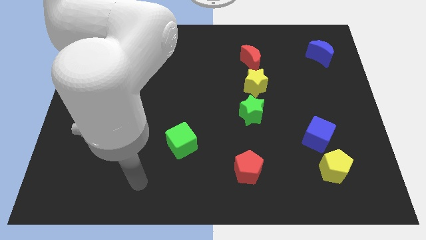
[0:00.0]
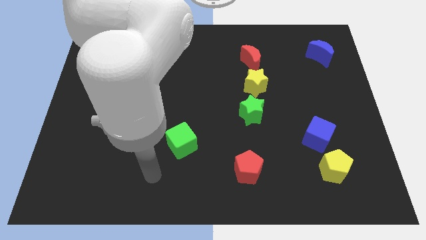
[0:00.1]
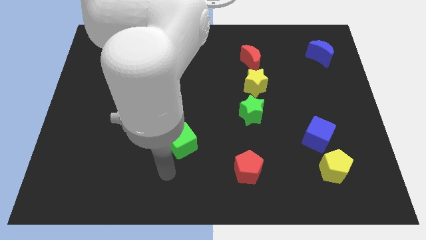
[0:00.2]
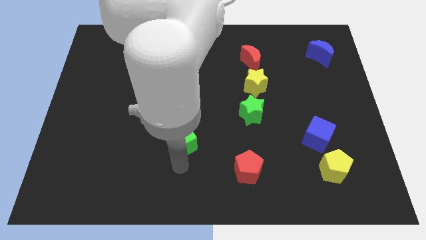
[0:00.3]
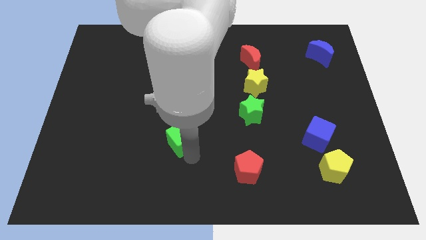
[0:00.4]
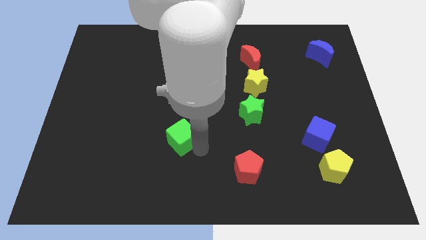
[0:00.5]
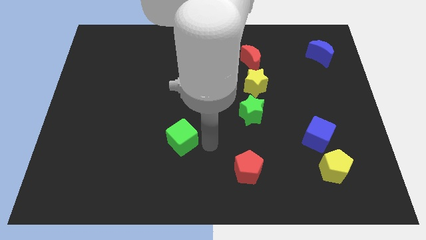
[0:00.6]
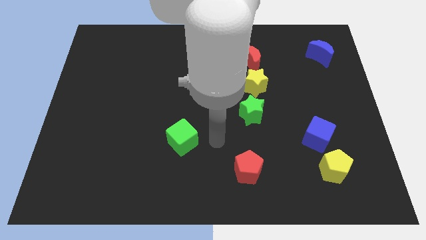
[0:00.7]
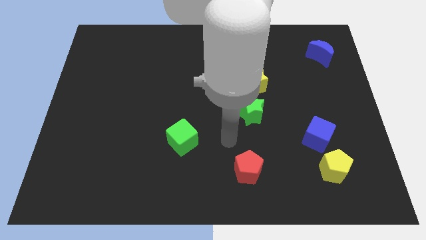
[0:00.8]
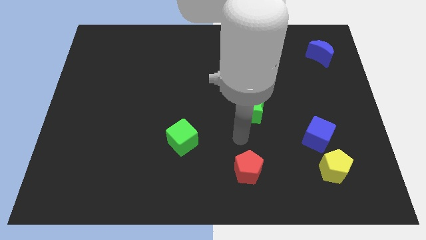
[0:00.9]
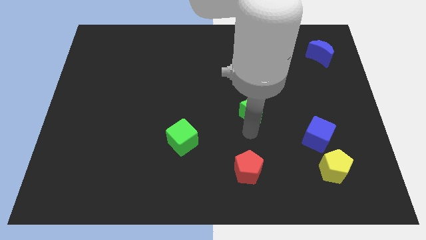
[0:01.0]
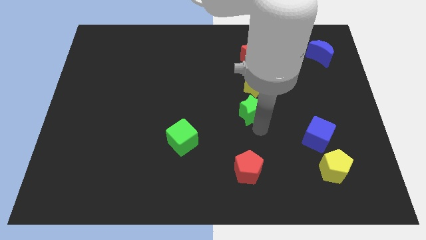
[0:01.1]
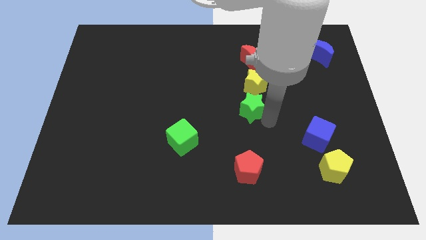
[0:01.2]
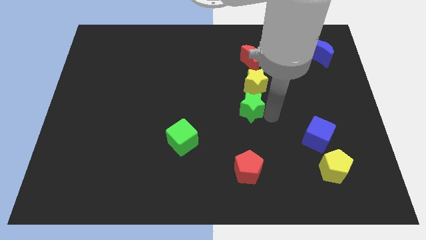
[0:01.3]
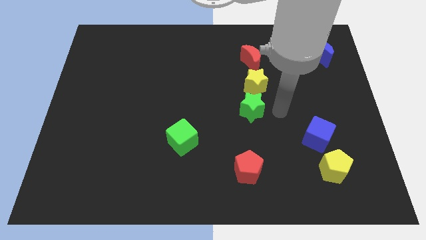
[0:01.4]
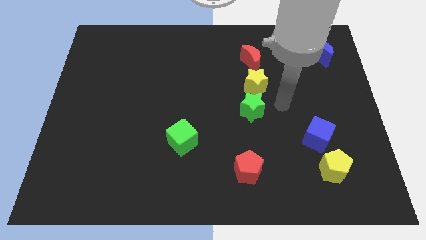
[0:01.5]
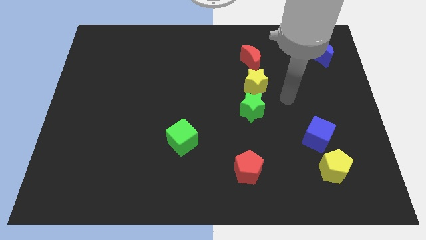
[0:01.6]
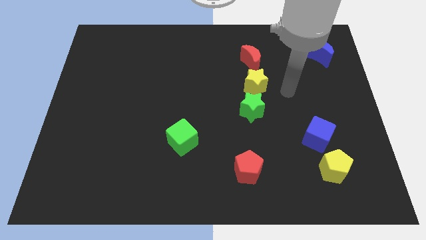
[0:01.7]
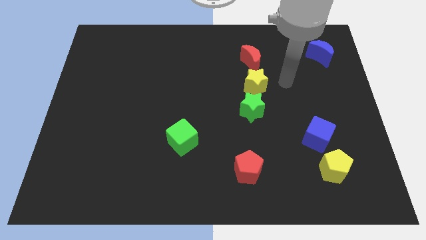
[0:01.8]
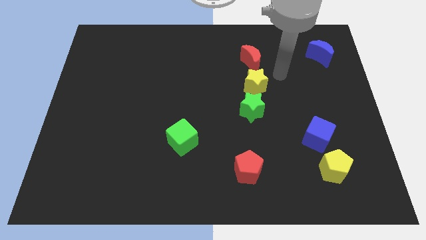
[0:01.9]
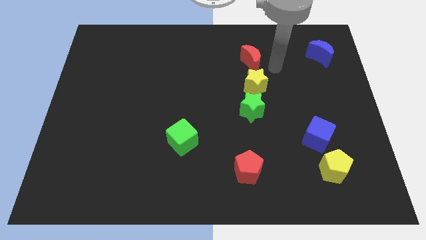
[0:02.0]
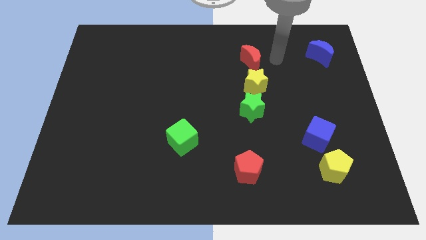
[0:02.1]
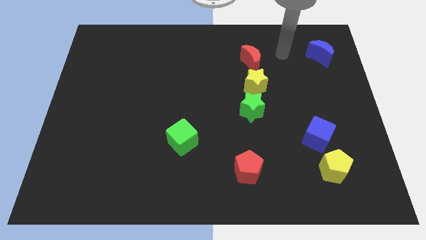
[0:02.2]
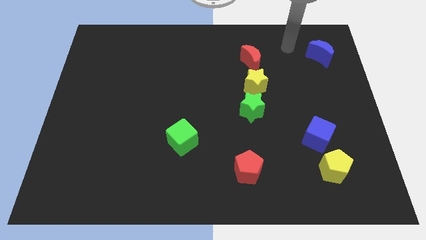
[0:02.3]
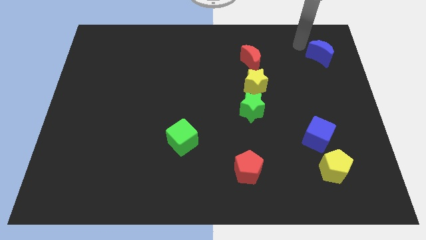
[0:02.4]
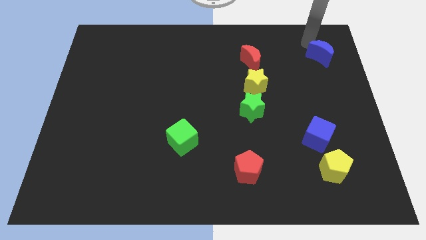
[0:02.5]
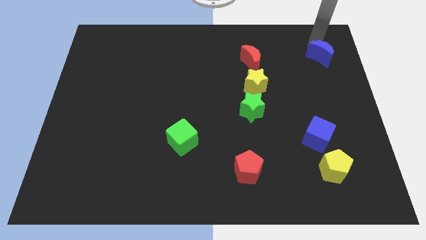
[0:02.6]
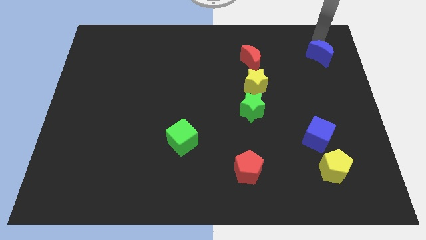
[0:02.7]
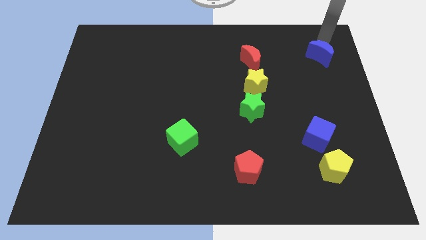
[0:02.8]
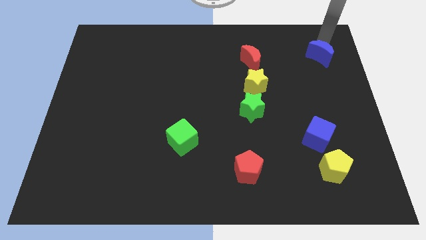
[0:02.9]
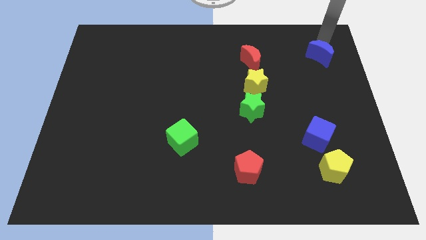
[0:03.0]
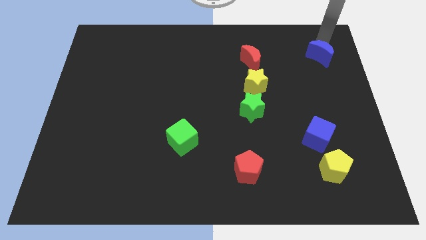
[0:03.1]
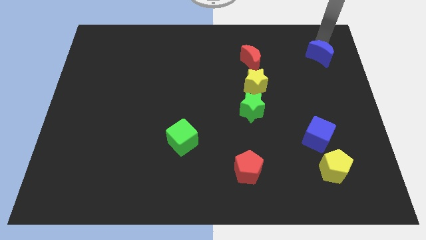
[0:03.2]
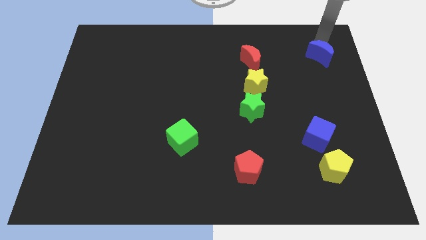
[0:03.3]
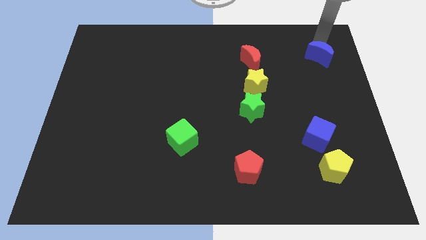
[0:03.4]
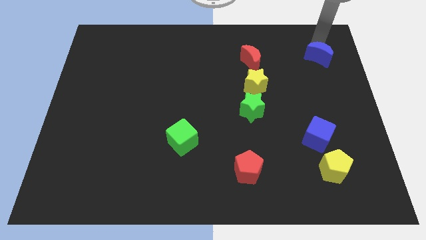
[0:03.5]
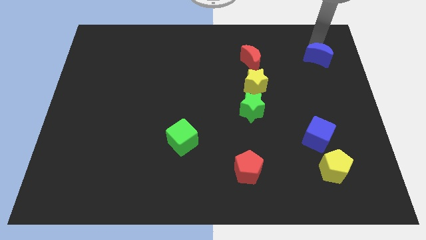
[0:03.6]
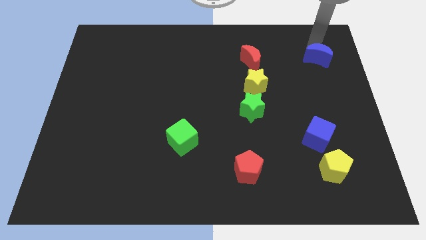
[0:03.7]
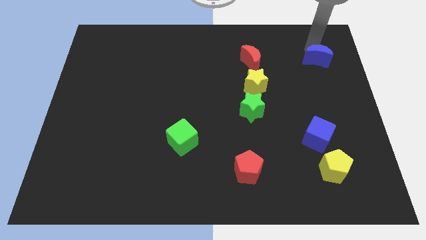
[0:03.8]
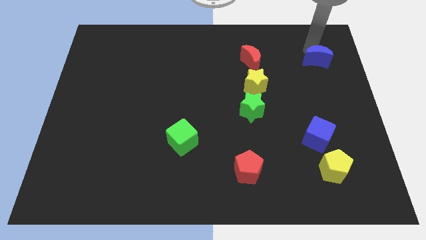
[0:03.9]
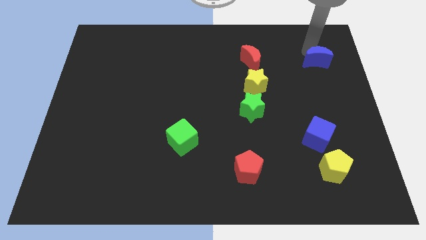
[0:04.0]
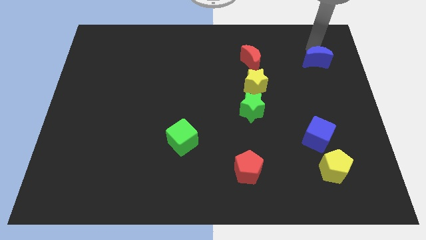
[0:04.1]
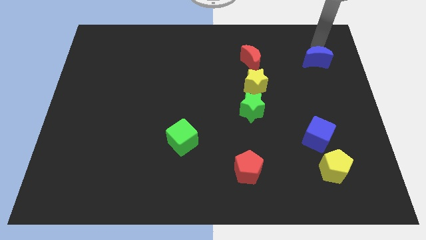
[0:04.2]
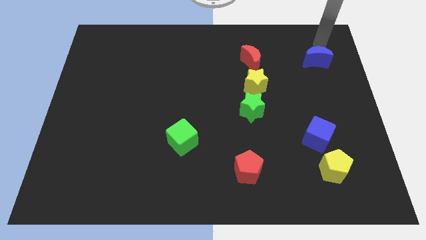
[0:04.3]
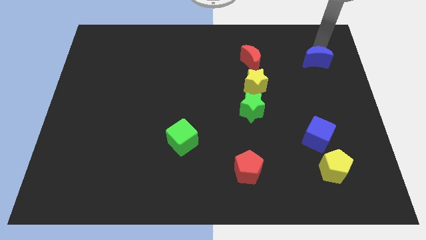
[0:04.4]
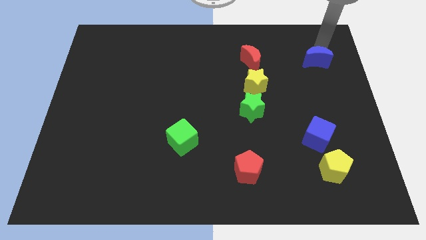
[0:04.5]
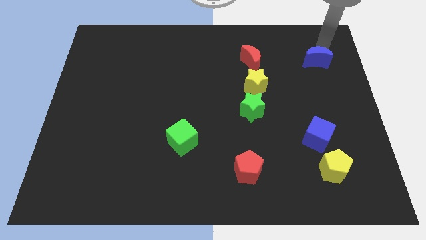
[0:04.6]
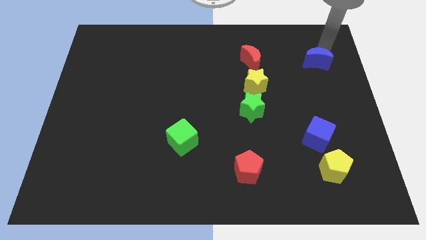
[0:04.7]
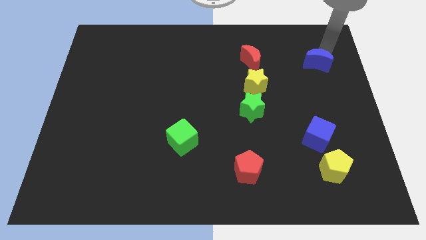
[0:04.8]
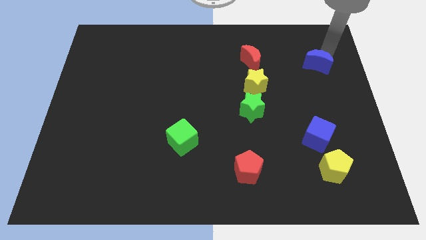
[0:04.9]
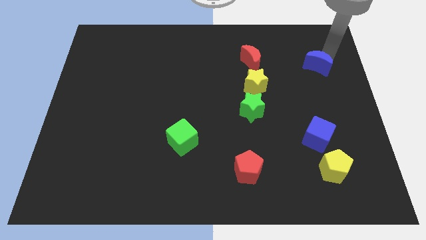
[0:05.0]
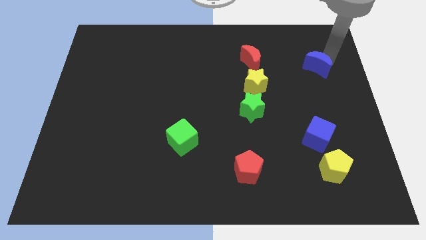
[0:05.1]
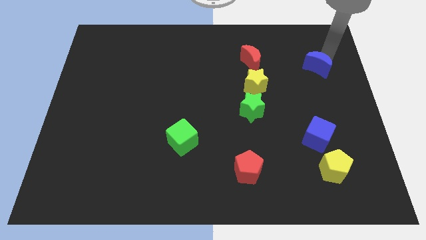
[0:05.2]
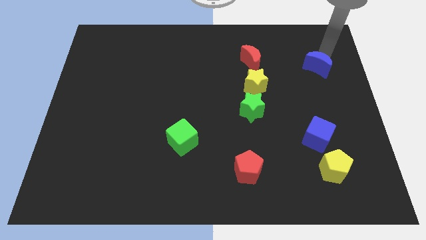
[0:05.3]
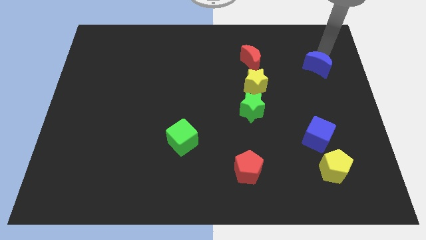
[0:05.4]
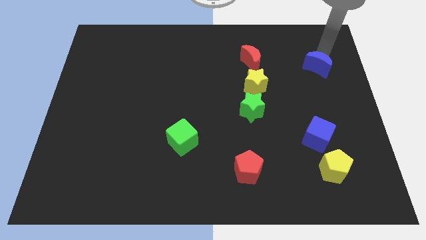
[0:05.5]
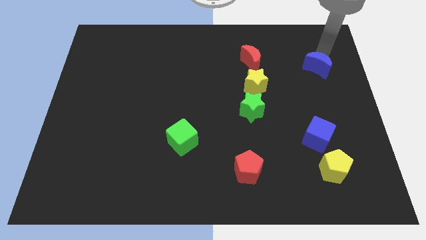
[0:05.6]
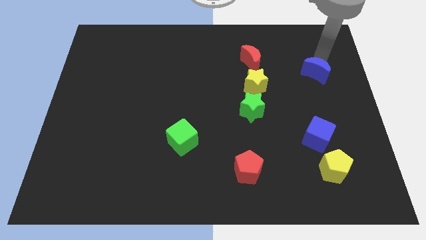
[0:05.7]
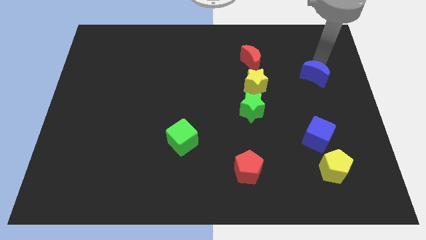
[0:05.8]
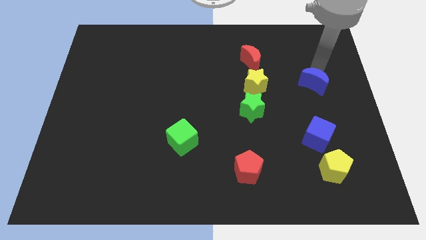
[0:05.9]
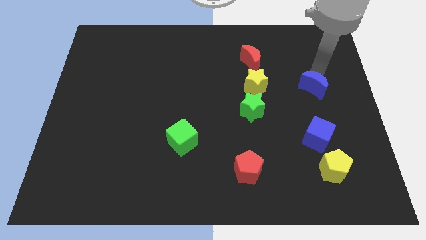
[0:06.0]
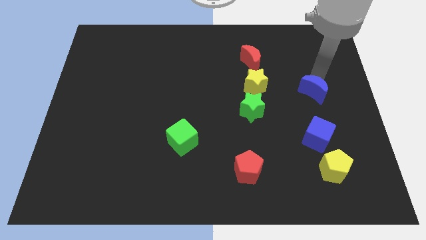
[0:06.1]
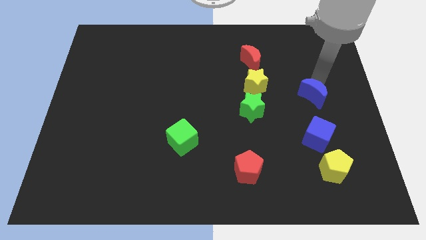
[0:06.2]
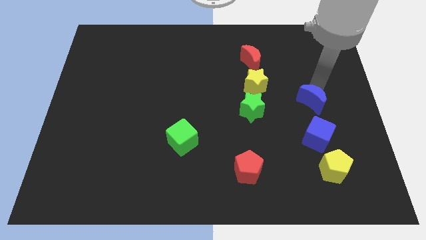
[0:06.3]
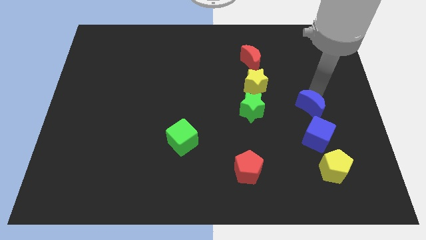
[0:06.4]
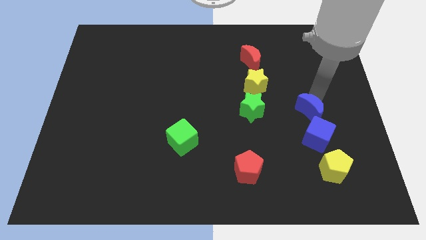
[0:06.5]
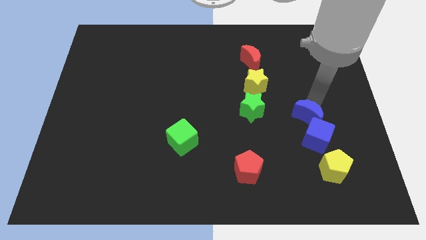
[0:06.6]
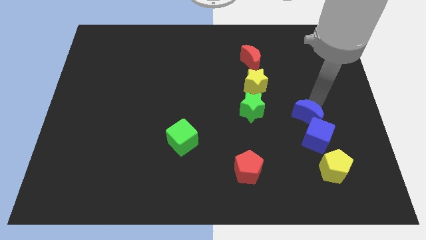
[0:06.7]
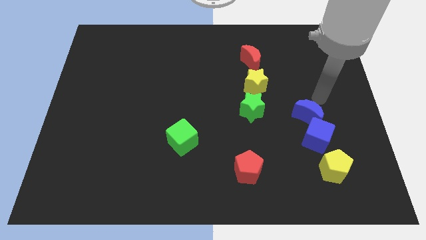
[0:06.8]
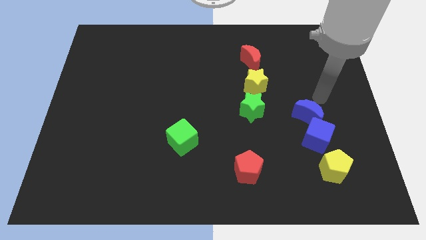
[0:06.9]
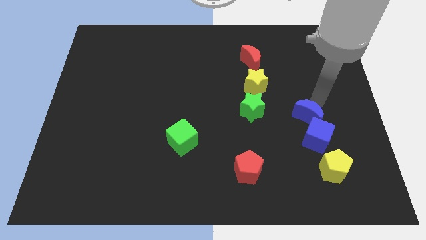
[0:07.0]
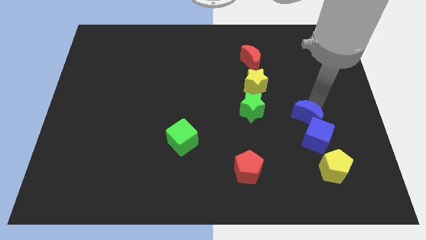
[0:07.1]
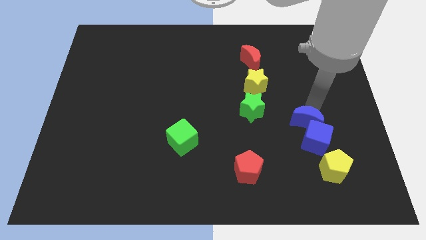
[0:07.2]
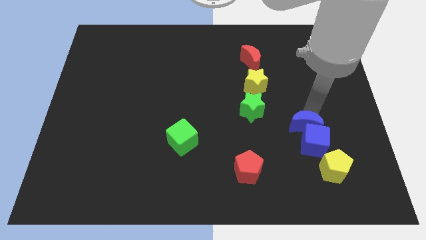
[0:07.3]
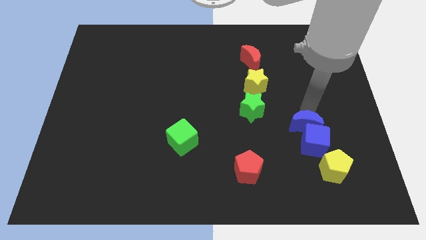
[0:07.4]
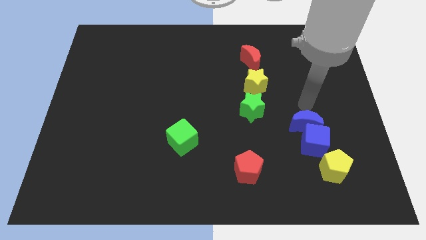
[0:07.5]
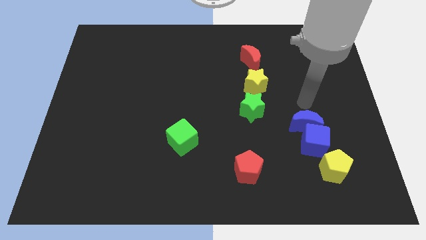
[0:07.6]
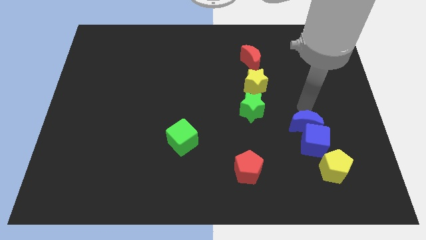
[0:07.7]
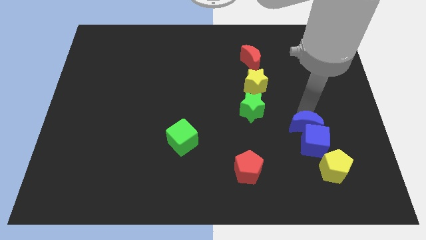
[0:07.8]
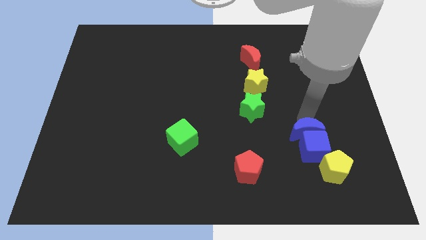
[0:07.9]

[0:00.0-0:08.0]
move the blue moon to the top left side of the yellow pentagon
